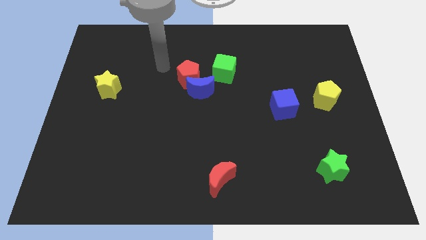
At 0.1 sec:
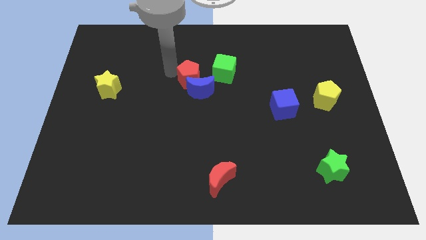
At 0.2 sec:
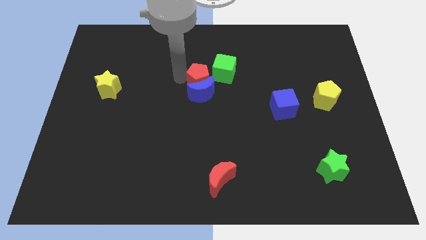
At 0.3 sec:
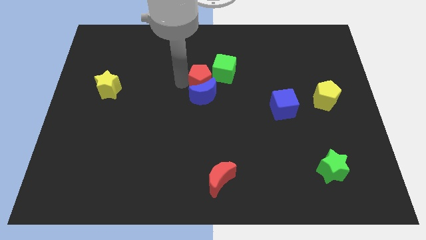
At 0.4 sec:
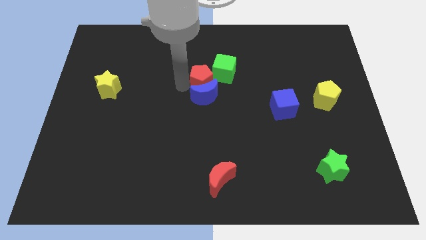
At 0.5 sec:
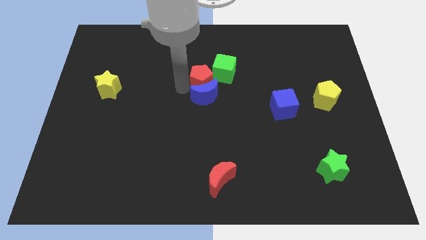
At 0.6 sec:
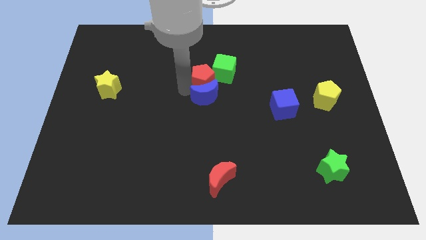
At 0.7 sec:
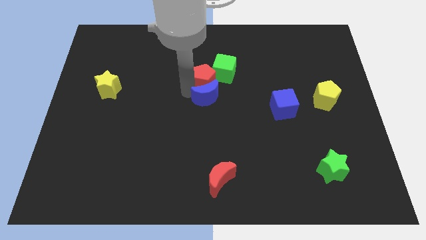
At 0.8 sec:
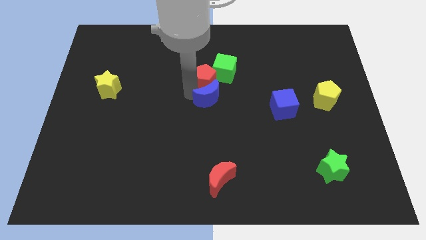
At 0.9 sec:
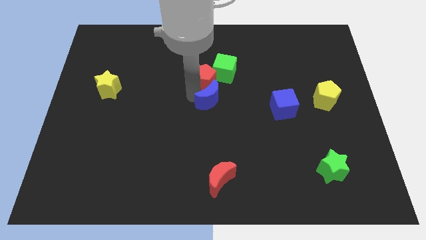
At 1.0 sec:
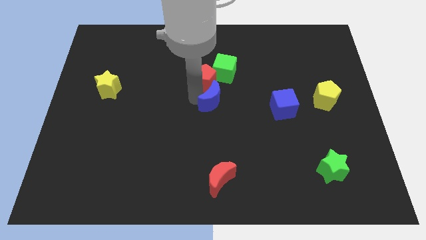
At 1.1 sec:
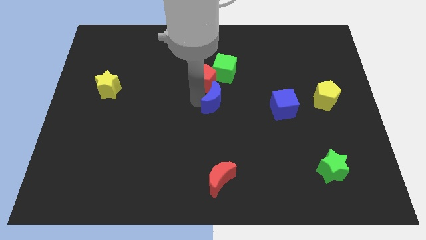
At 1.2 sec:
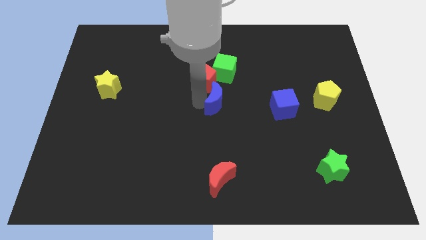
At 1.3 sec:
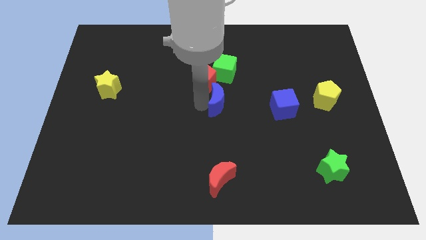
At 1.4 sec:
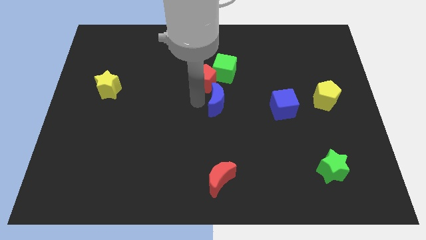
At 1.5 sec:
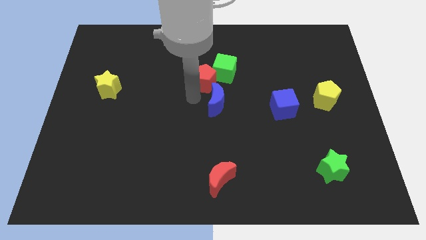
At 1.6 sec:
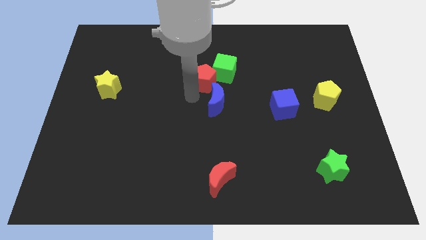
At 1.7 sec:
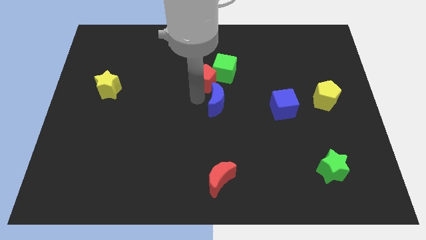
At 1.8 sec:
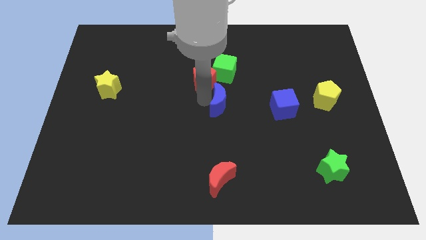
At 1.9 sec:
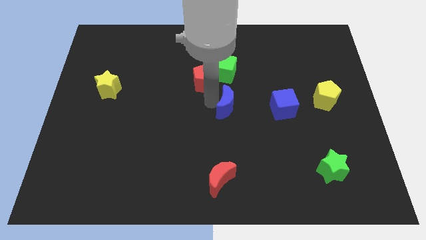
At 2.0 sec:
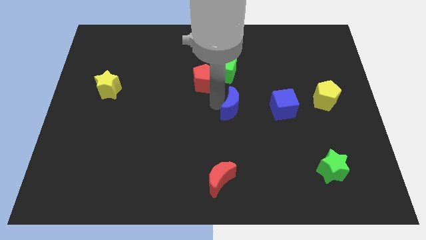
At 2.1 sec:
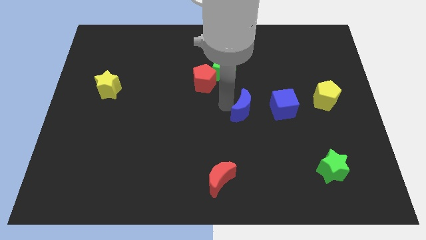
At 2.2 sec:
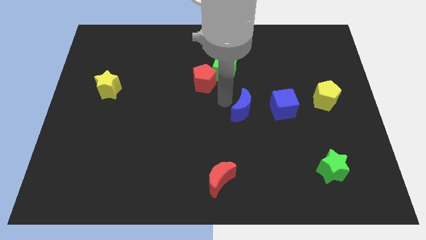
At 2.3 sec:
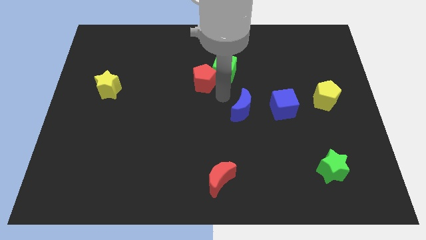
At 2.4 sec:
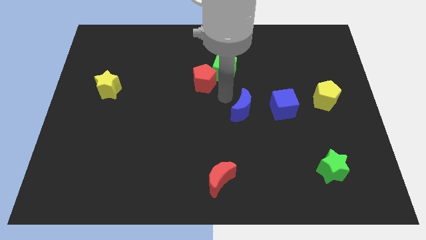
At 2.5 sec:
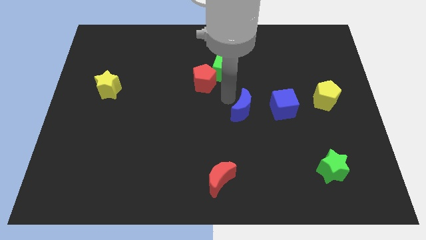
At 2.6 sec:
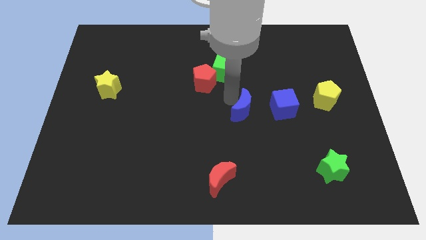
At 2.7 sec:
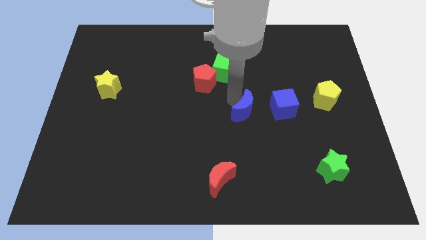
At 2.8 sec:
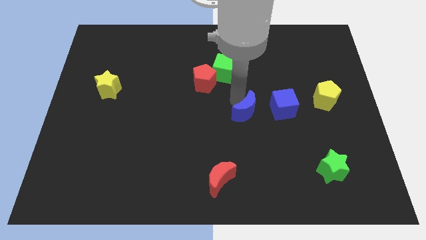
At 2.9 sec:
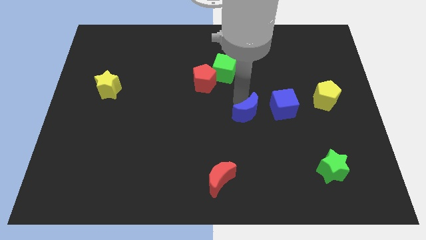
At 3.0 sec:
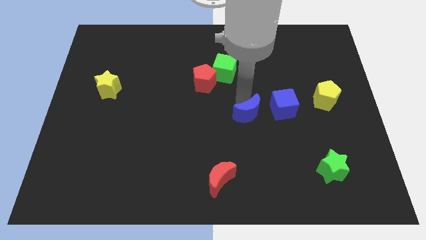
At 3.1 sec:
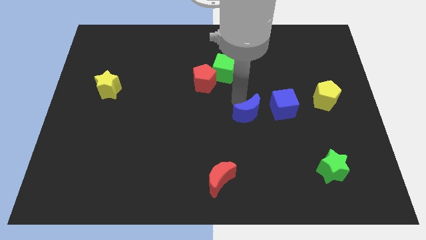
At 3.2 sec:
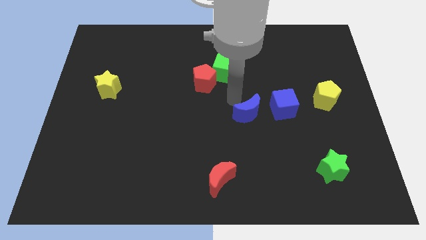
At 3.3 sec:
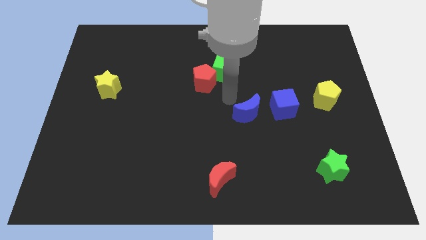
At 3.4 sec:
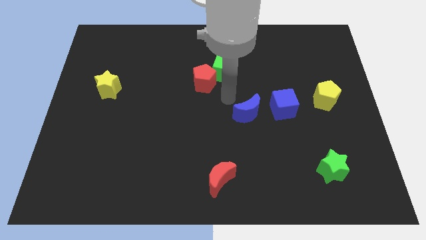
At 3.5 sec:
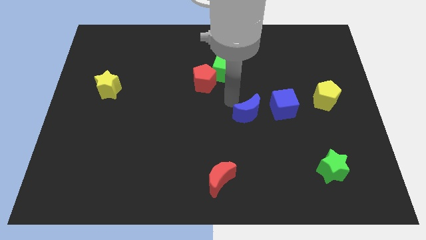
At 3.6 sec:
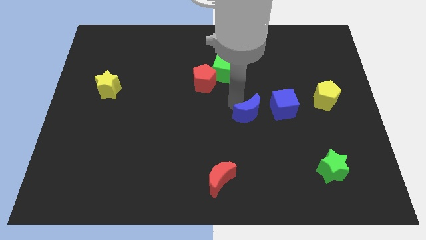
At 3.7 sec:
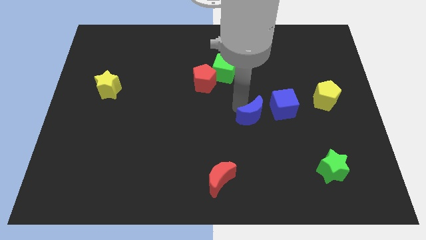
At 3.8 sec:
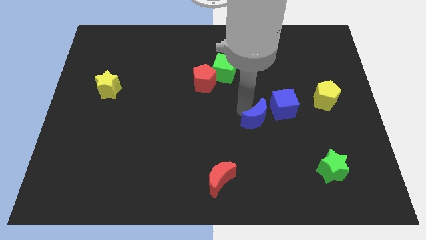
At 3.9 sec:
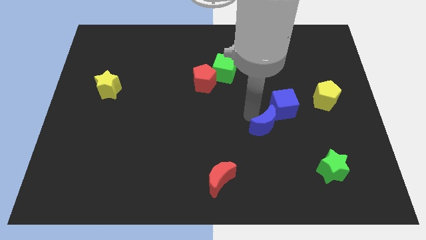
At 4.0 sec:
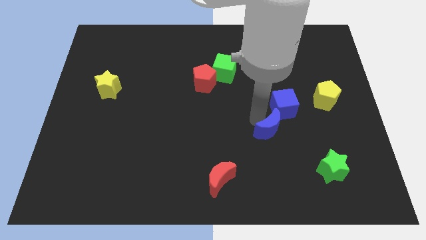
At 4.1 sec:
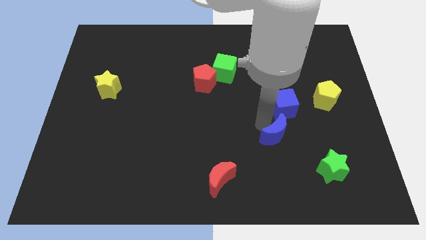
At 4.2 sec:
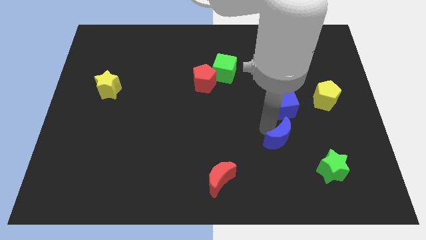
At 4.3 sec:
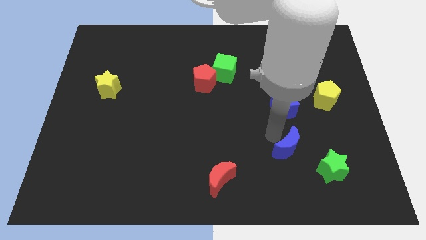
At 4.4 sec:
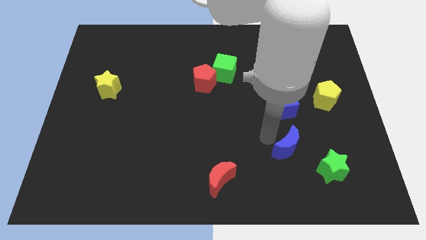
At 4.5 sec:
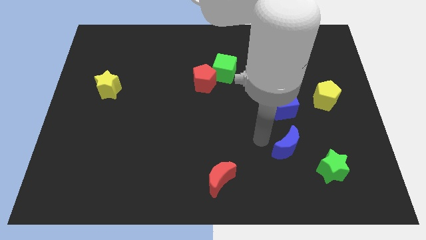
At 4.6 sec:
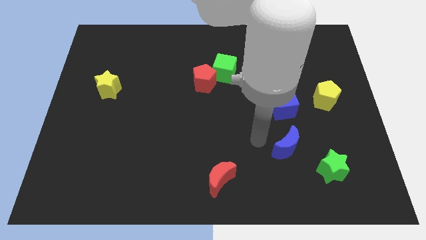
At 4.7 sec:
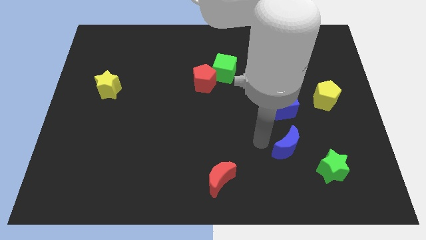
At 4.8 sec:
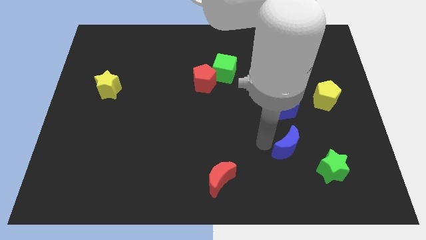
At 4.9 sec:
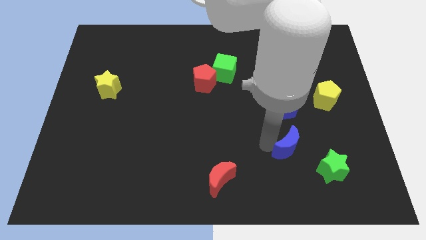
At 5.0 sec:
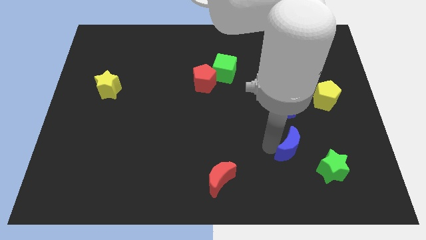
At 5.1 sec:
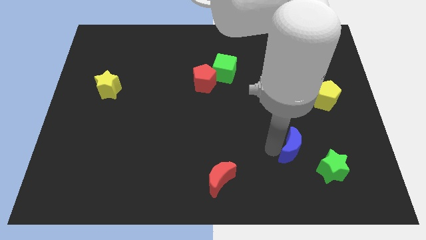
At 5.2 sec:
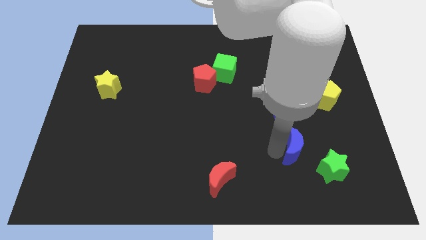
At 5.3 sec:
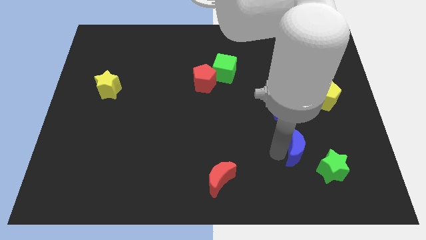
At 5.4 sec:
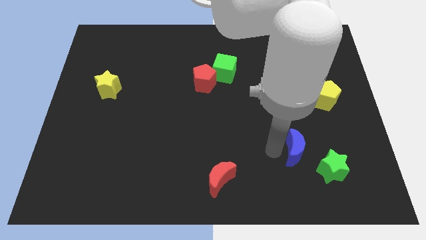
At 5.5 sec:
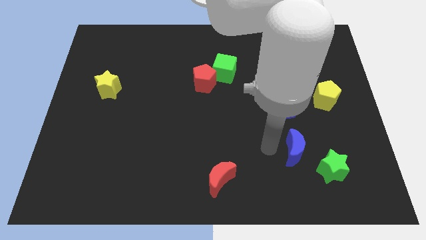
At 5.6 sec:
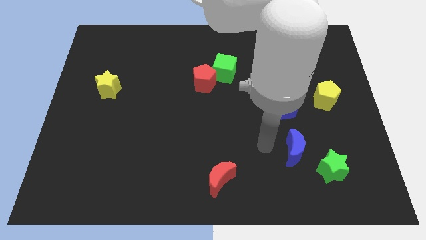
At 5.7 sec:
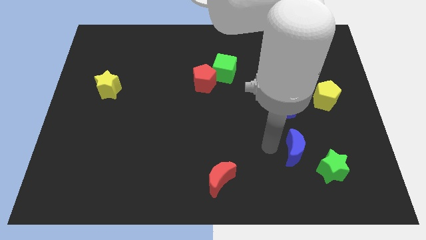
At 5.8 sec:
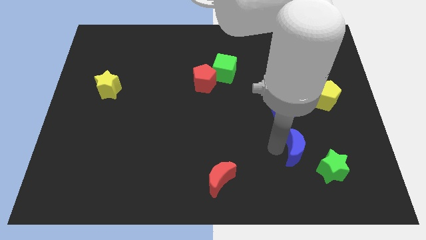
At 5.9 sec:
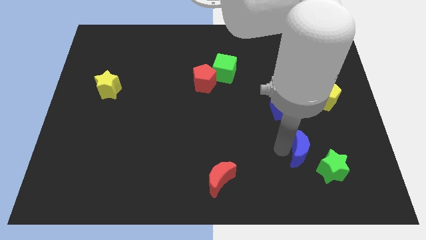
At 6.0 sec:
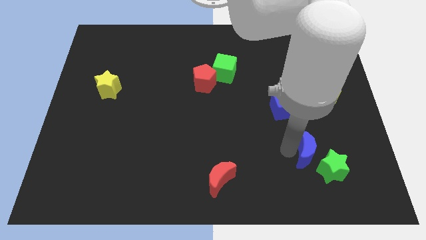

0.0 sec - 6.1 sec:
push the blue moon to the green star

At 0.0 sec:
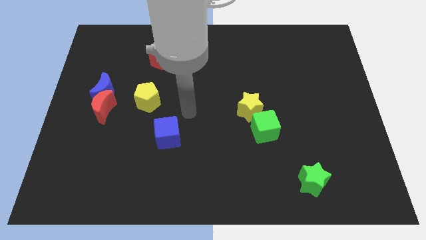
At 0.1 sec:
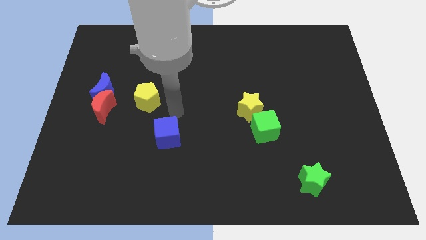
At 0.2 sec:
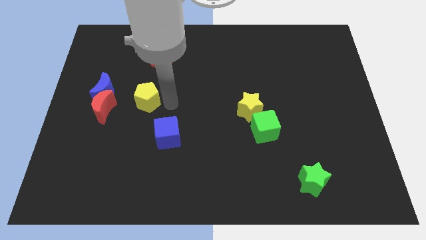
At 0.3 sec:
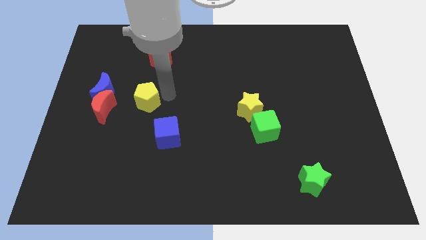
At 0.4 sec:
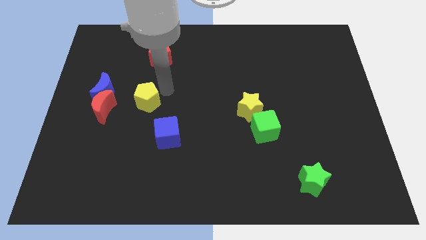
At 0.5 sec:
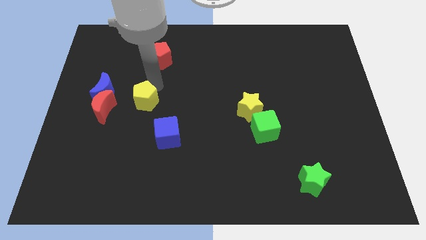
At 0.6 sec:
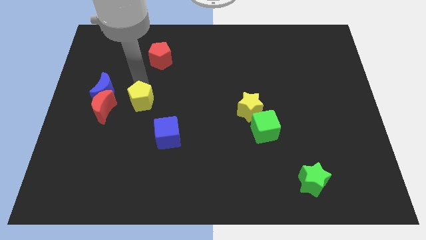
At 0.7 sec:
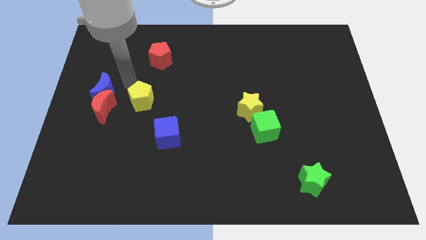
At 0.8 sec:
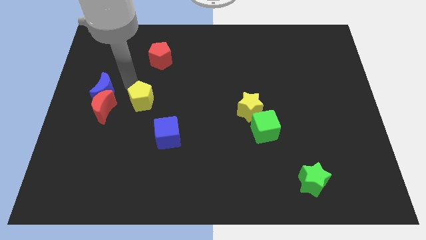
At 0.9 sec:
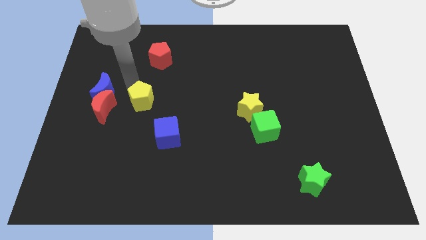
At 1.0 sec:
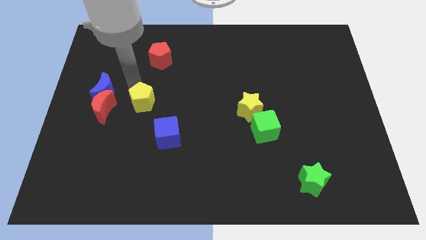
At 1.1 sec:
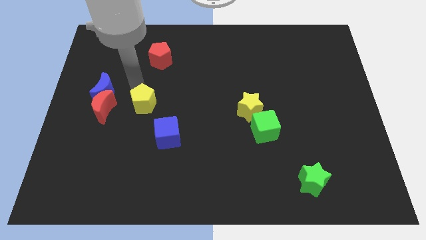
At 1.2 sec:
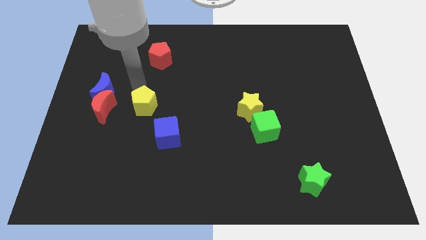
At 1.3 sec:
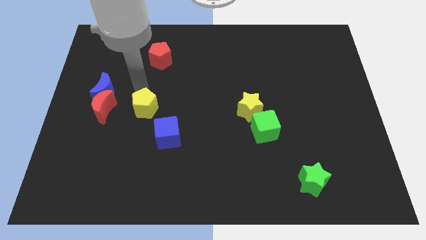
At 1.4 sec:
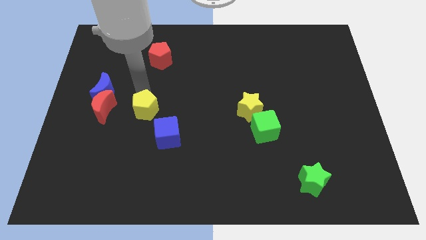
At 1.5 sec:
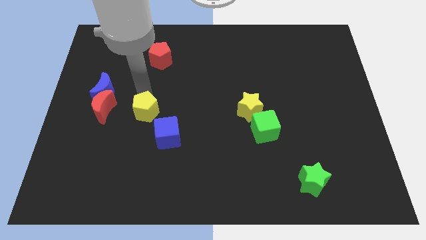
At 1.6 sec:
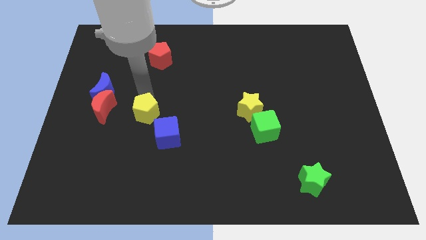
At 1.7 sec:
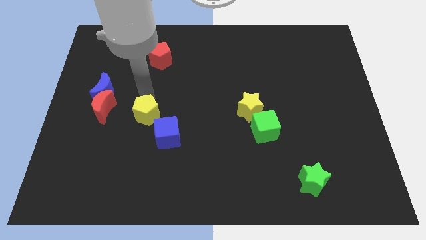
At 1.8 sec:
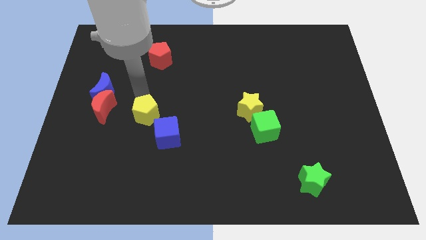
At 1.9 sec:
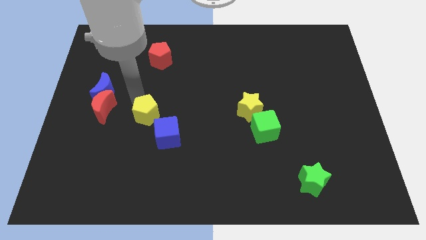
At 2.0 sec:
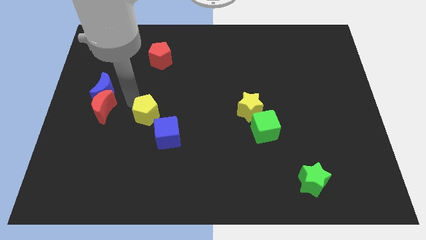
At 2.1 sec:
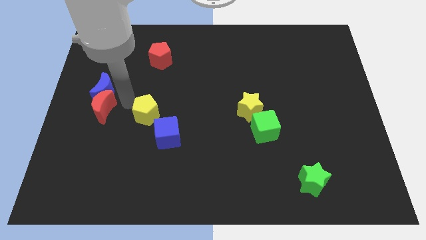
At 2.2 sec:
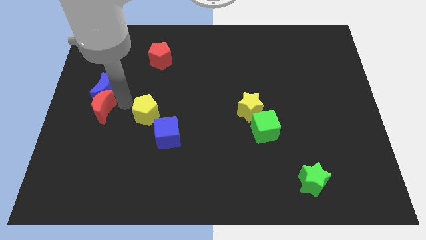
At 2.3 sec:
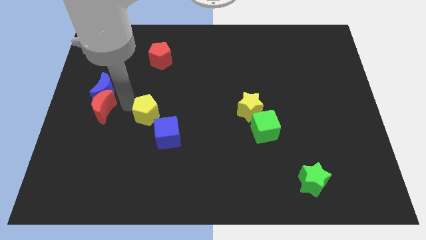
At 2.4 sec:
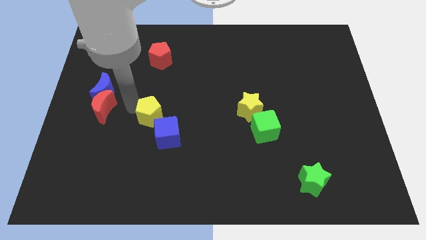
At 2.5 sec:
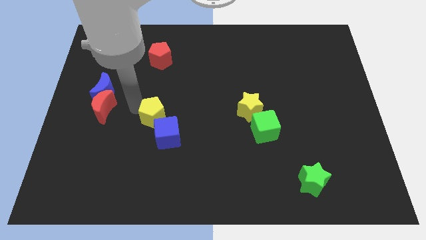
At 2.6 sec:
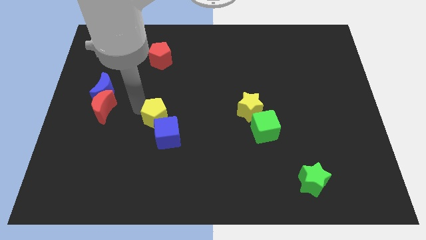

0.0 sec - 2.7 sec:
push the yellow pentagon close to the blue cube
